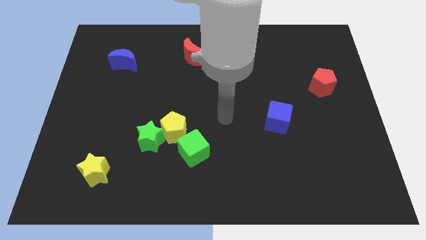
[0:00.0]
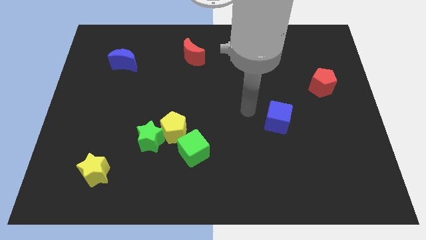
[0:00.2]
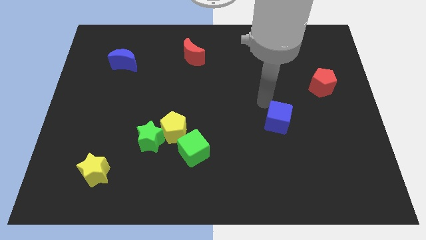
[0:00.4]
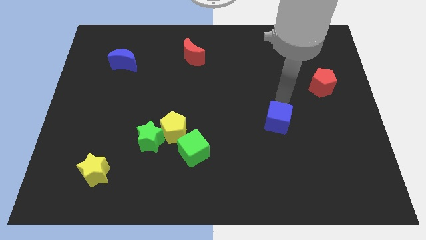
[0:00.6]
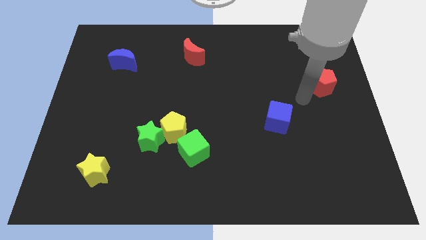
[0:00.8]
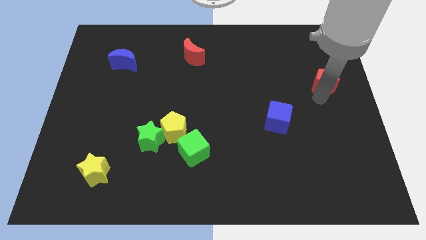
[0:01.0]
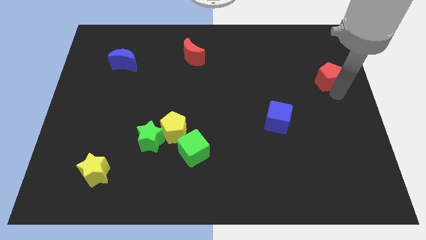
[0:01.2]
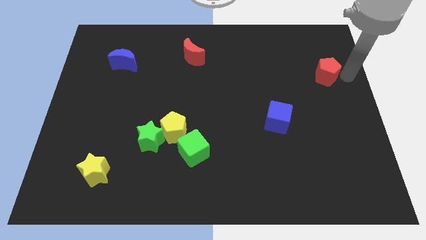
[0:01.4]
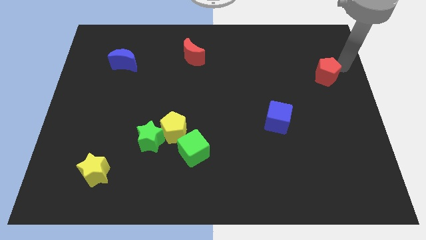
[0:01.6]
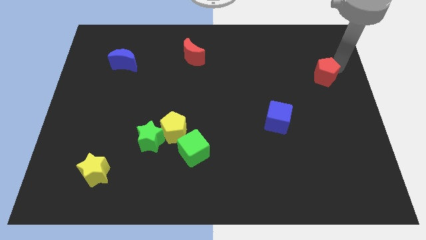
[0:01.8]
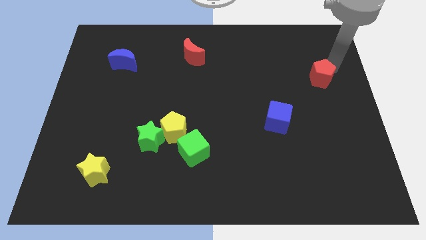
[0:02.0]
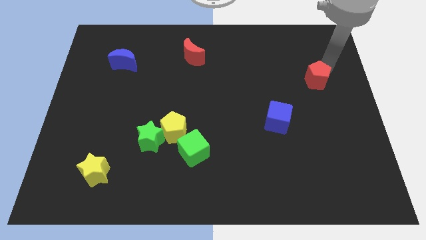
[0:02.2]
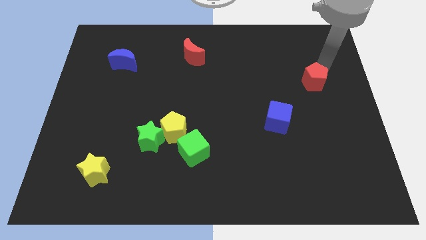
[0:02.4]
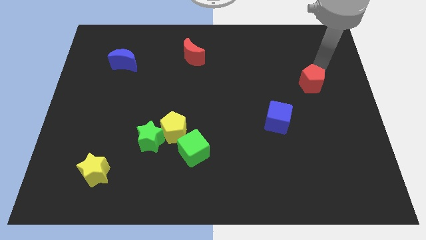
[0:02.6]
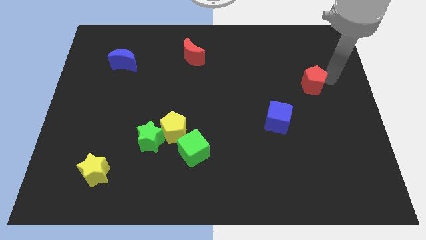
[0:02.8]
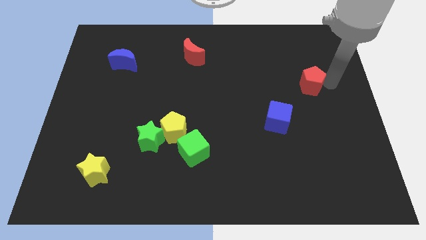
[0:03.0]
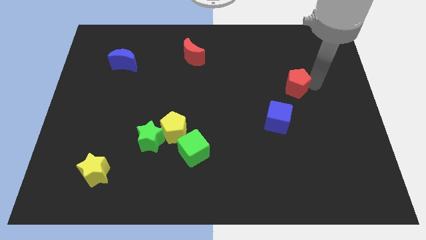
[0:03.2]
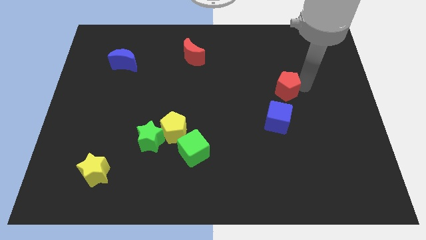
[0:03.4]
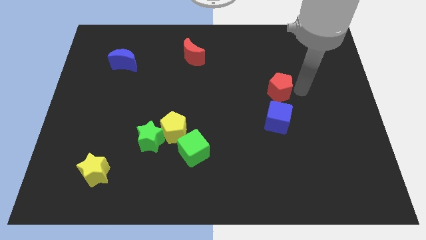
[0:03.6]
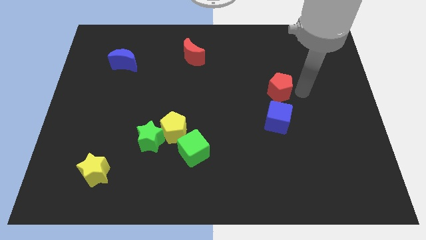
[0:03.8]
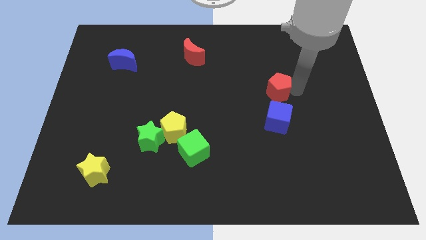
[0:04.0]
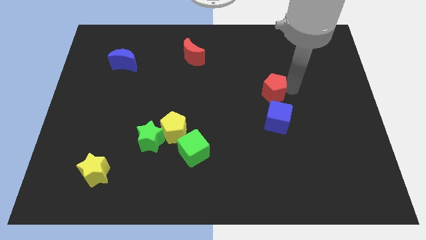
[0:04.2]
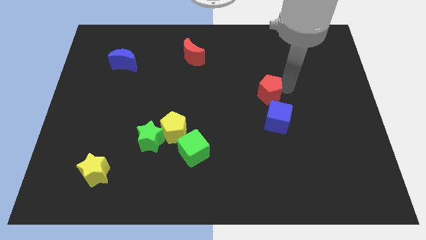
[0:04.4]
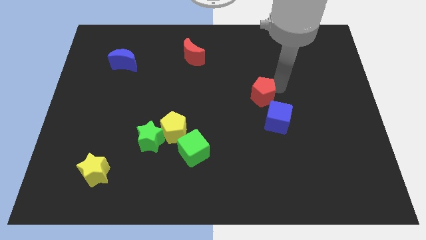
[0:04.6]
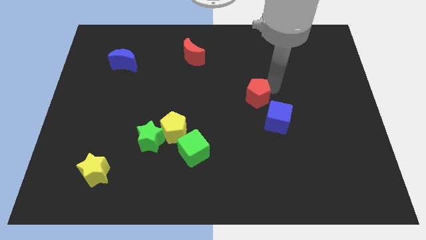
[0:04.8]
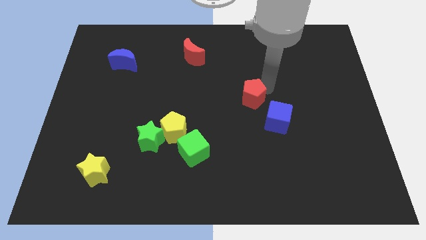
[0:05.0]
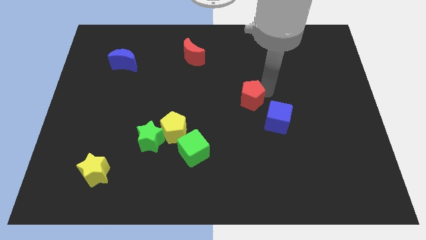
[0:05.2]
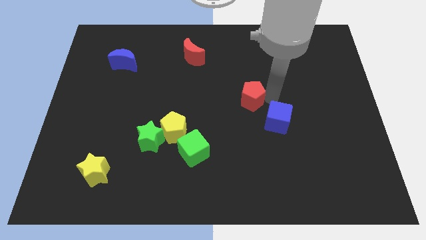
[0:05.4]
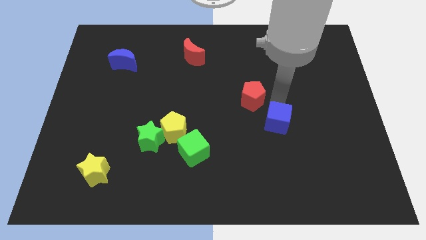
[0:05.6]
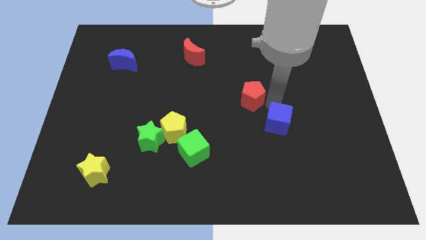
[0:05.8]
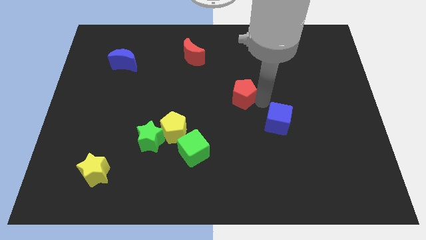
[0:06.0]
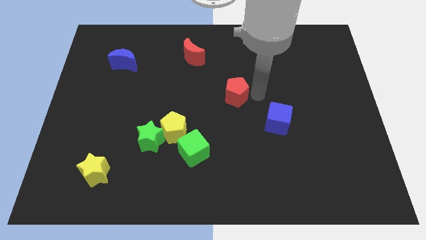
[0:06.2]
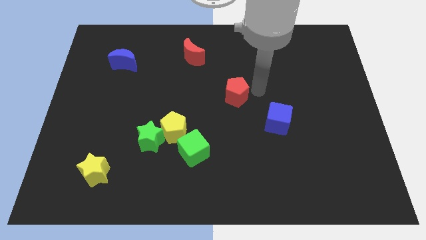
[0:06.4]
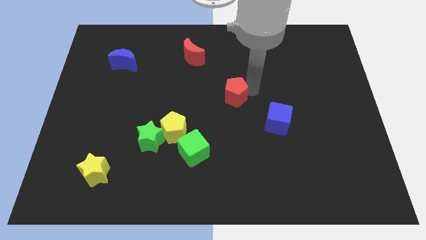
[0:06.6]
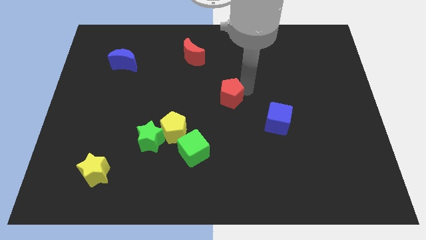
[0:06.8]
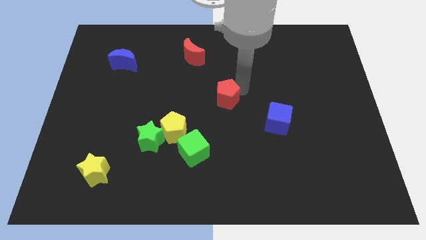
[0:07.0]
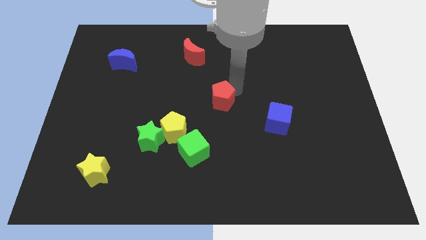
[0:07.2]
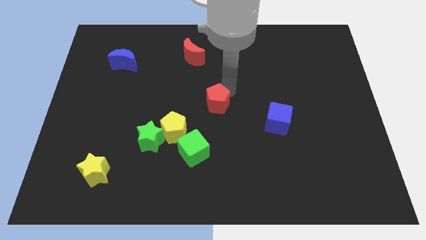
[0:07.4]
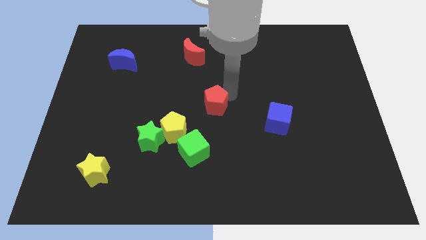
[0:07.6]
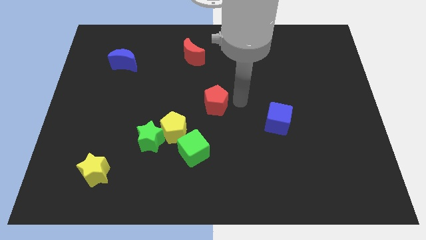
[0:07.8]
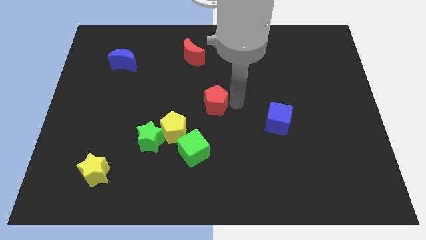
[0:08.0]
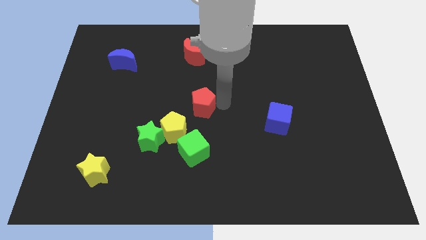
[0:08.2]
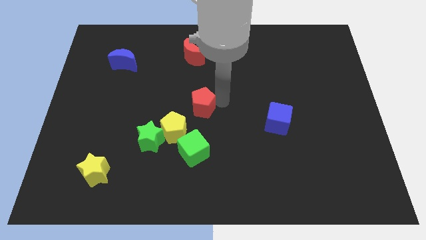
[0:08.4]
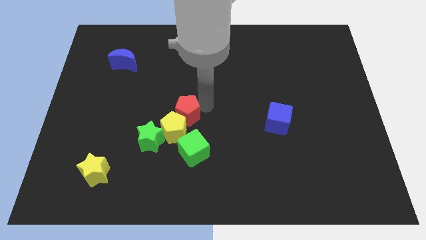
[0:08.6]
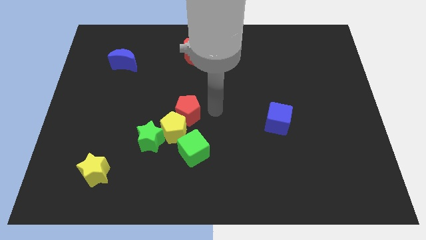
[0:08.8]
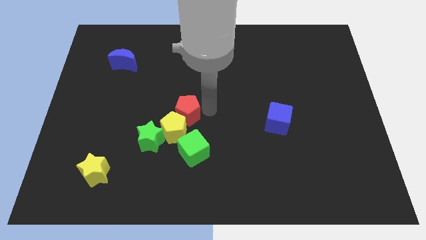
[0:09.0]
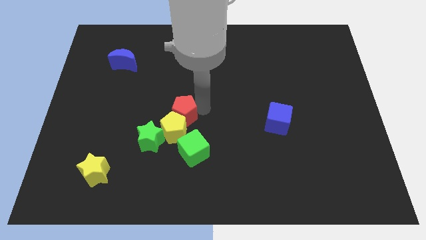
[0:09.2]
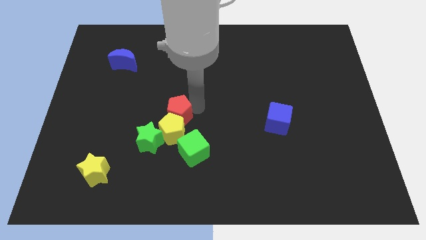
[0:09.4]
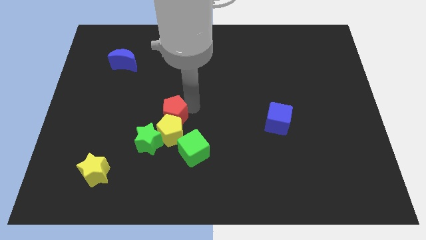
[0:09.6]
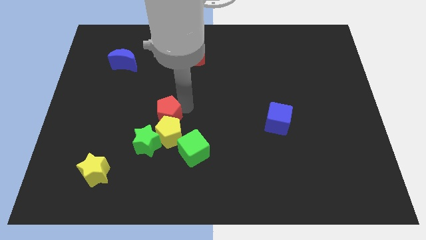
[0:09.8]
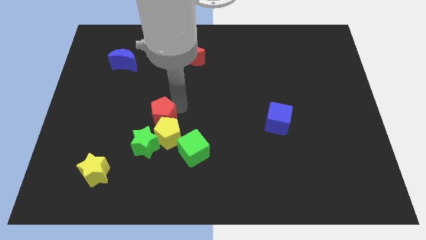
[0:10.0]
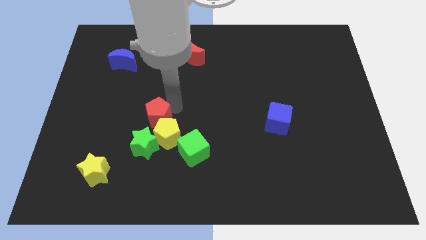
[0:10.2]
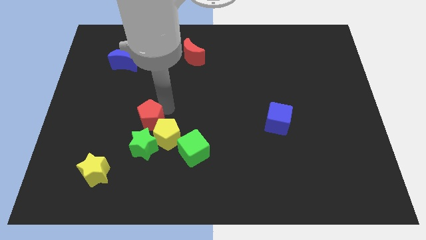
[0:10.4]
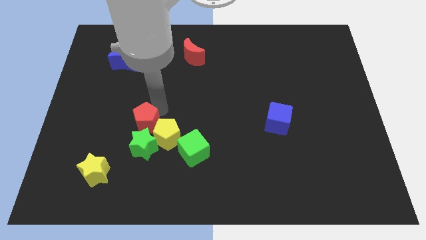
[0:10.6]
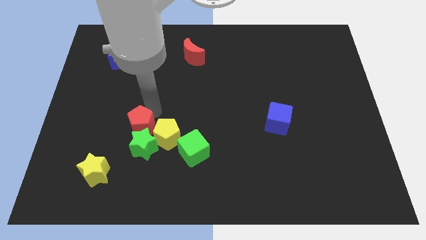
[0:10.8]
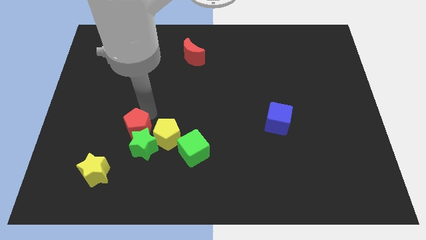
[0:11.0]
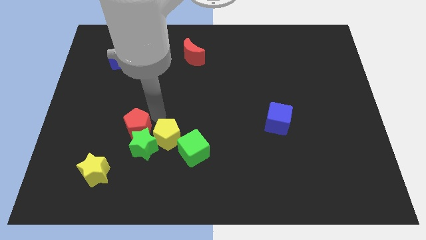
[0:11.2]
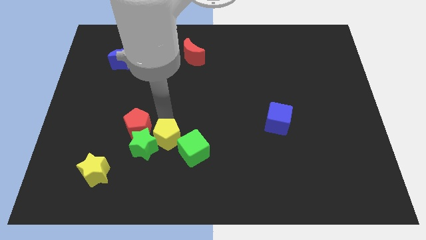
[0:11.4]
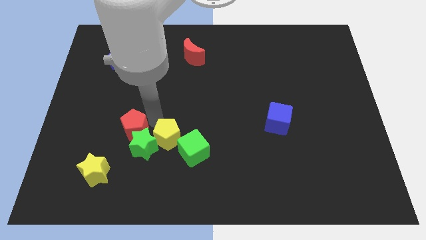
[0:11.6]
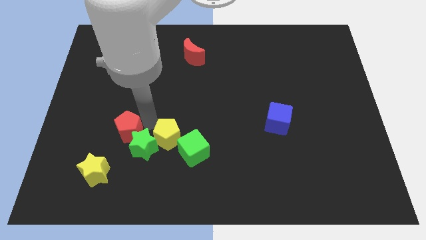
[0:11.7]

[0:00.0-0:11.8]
slide the red pentagon just left of the green star

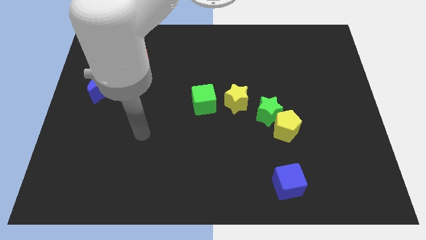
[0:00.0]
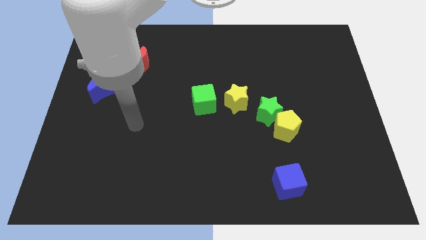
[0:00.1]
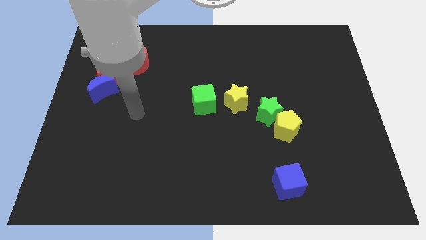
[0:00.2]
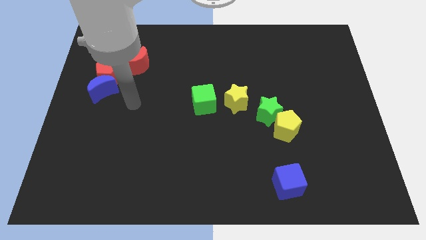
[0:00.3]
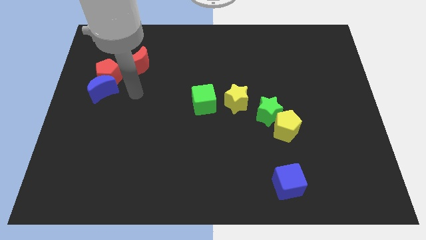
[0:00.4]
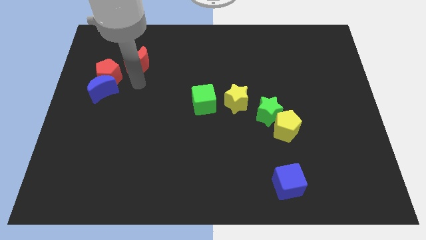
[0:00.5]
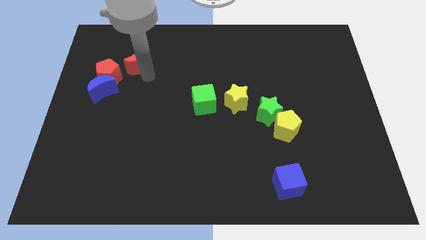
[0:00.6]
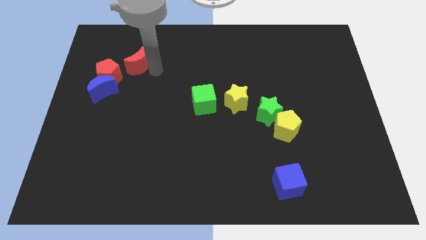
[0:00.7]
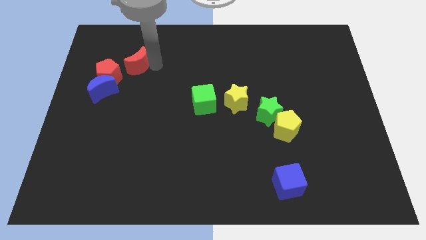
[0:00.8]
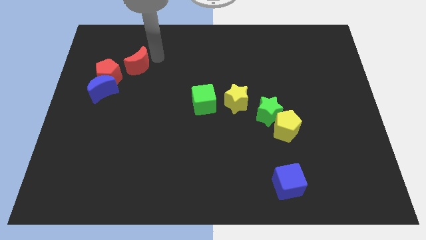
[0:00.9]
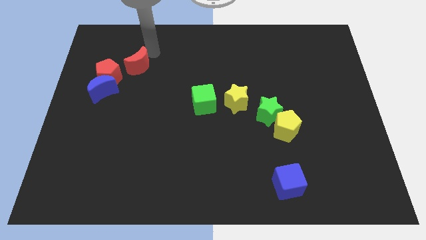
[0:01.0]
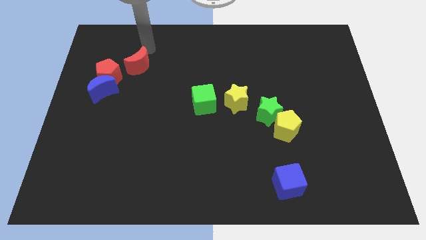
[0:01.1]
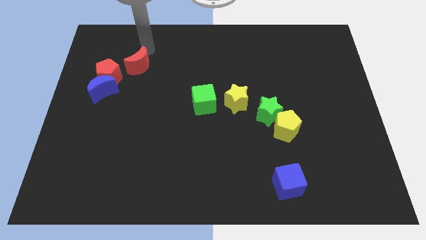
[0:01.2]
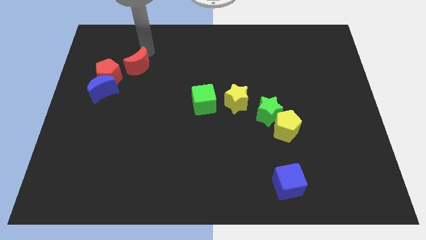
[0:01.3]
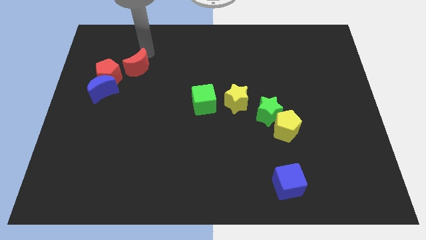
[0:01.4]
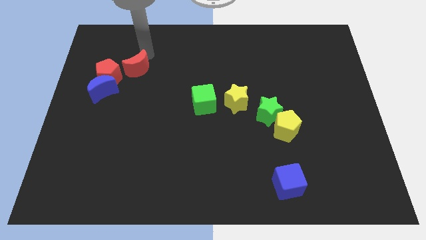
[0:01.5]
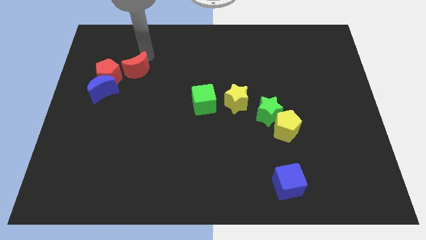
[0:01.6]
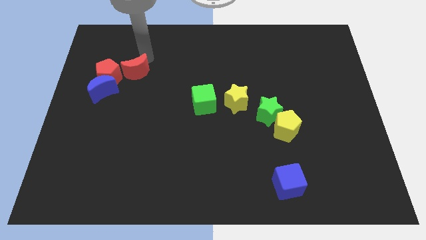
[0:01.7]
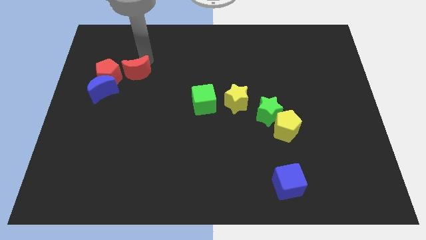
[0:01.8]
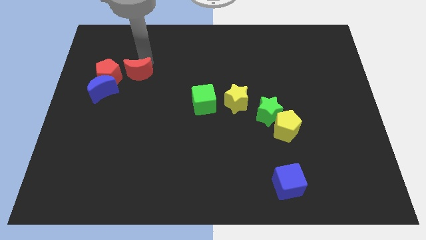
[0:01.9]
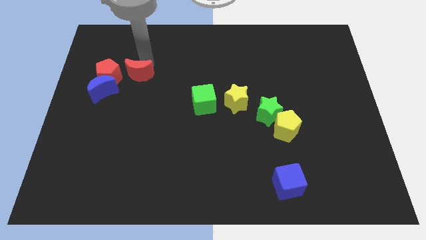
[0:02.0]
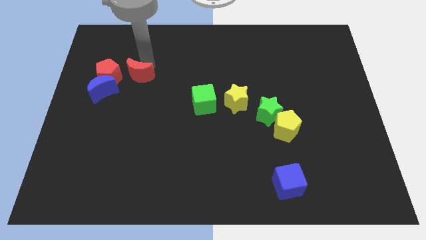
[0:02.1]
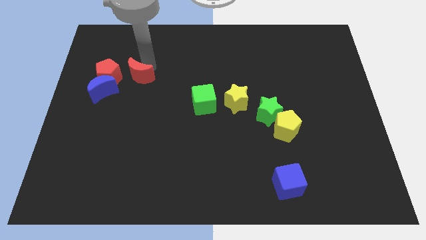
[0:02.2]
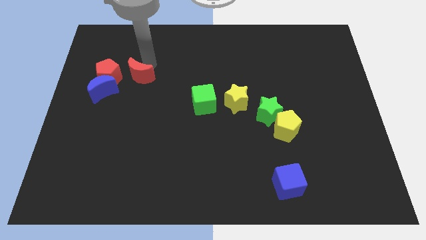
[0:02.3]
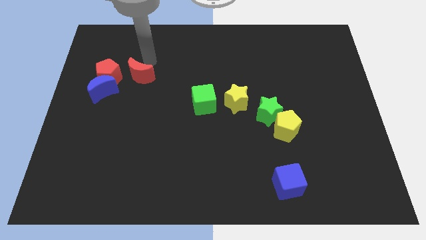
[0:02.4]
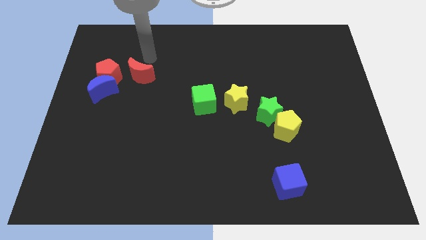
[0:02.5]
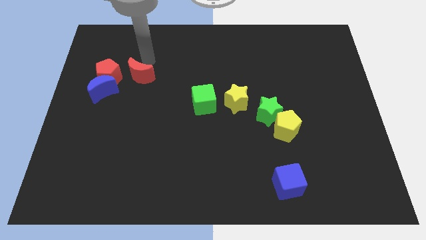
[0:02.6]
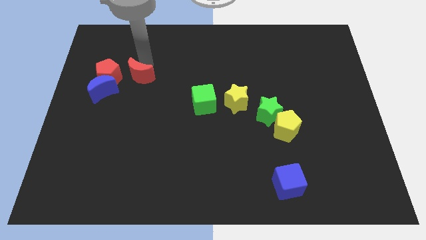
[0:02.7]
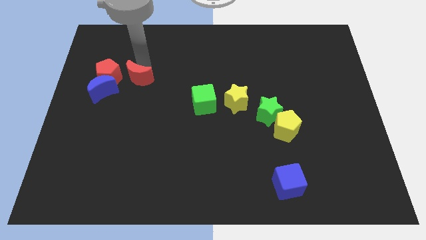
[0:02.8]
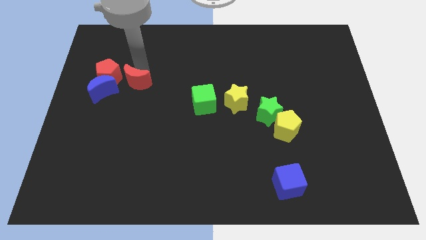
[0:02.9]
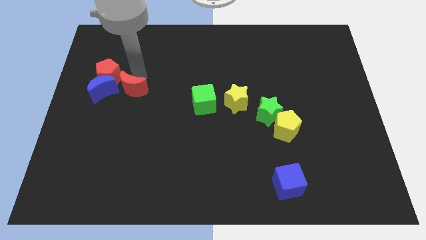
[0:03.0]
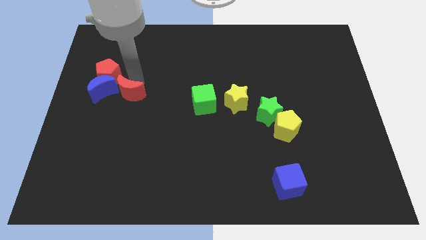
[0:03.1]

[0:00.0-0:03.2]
slide the red moon diagonally down and to the right of the blue moon
